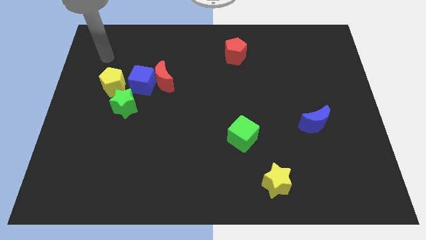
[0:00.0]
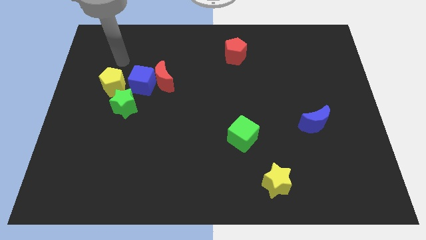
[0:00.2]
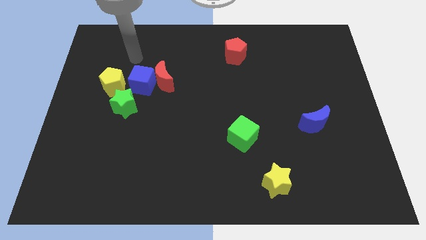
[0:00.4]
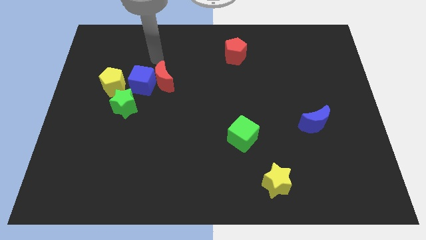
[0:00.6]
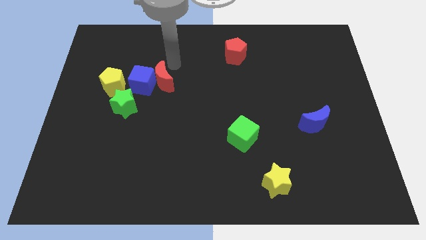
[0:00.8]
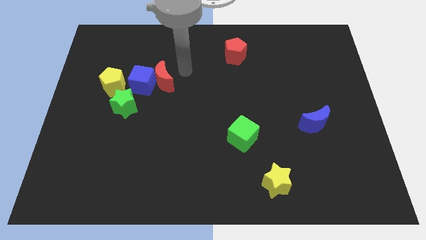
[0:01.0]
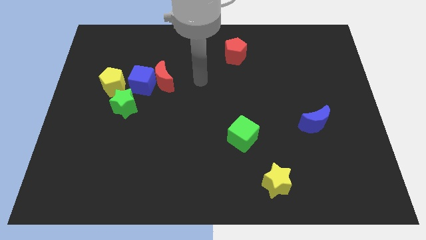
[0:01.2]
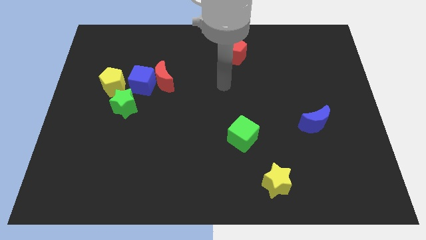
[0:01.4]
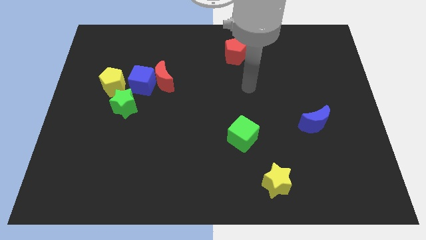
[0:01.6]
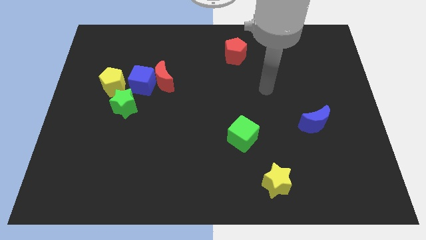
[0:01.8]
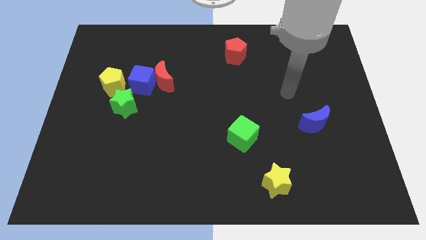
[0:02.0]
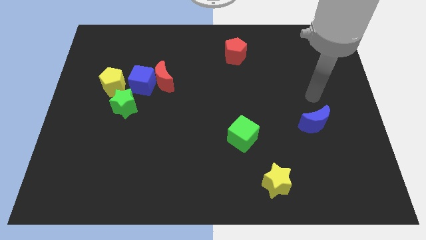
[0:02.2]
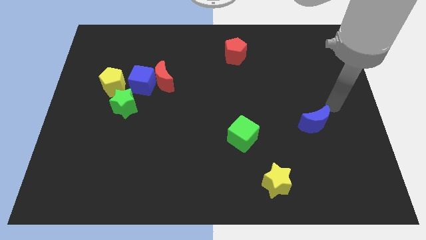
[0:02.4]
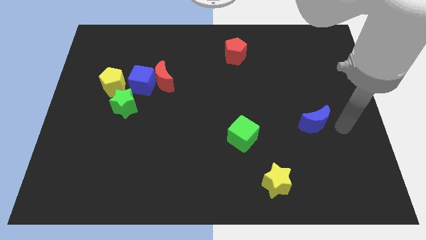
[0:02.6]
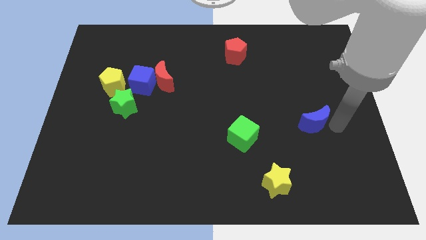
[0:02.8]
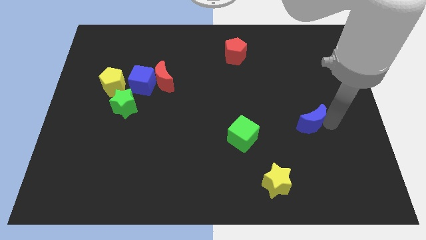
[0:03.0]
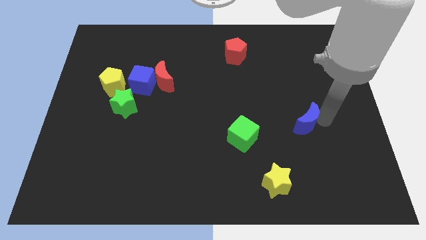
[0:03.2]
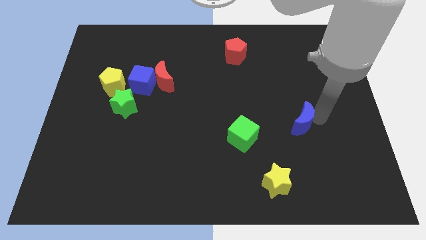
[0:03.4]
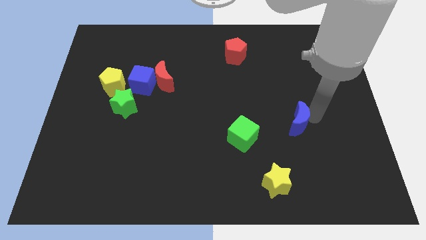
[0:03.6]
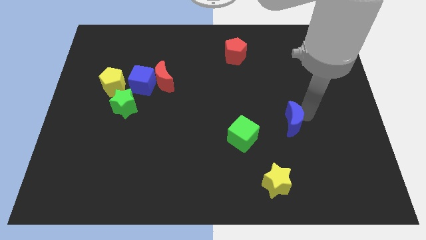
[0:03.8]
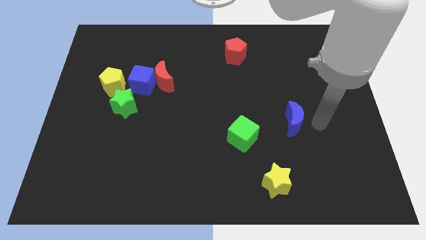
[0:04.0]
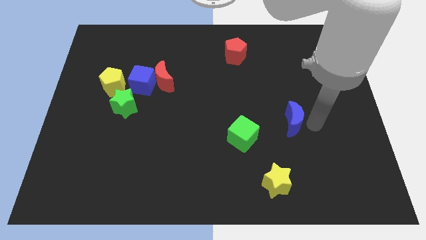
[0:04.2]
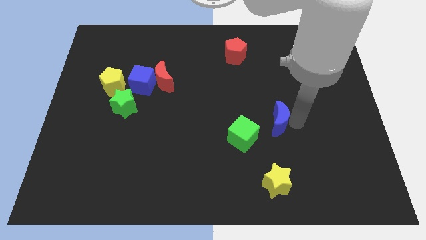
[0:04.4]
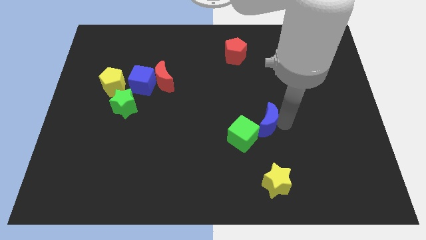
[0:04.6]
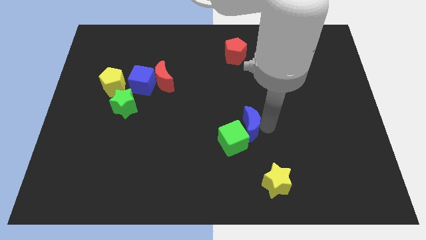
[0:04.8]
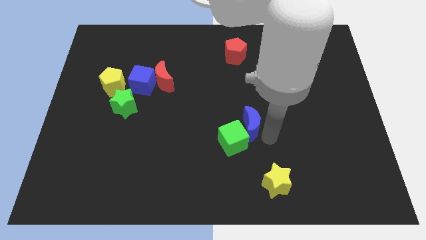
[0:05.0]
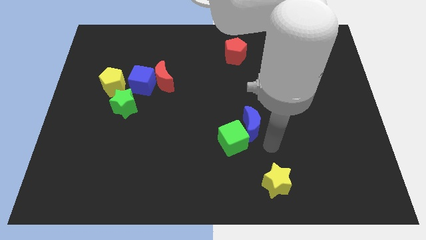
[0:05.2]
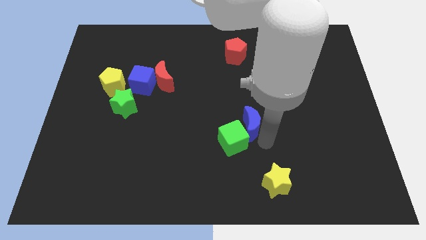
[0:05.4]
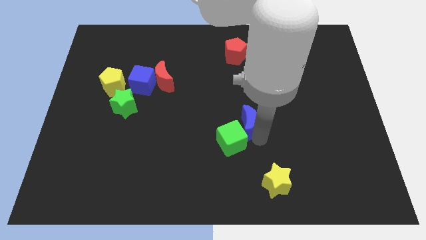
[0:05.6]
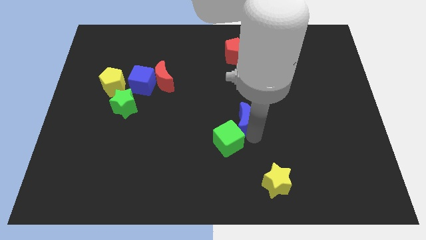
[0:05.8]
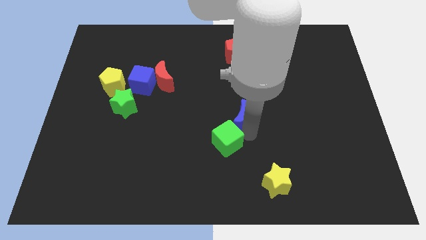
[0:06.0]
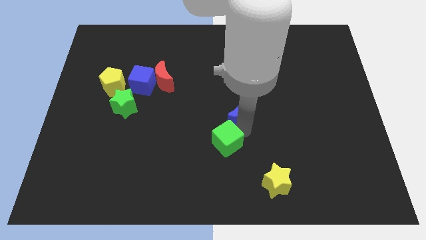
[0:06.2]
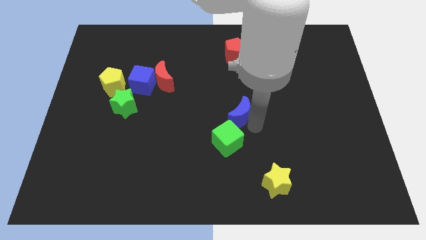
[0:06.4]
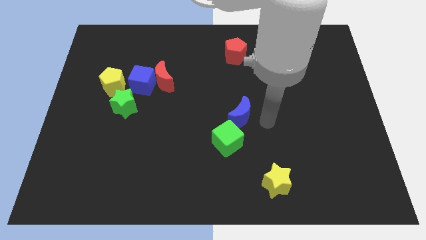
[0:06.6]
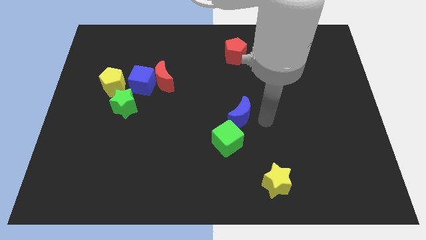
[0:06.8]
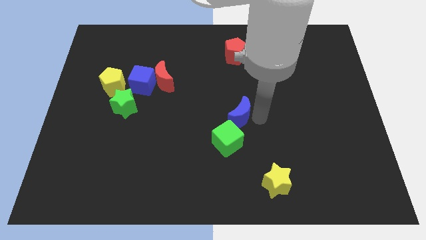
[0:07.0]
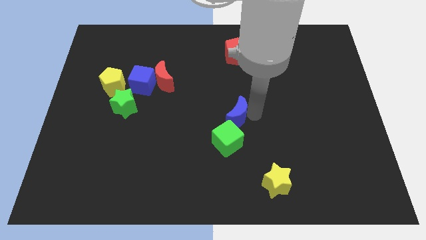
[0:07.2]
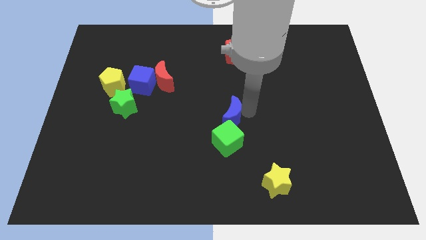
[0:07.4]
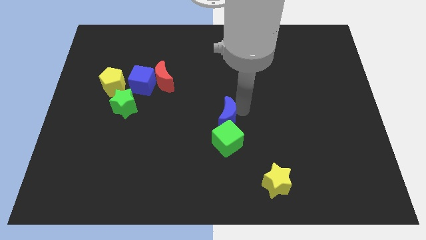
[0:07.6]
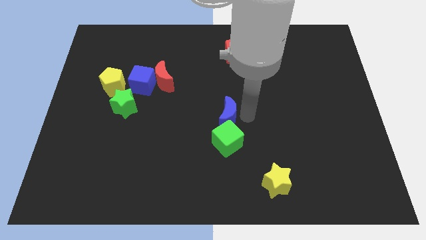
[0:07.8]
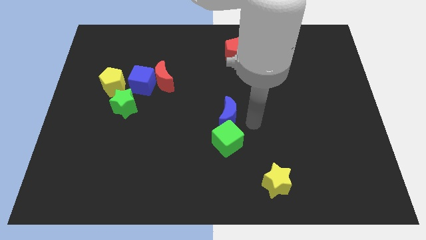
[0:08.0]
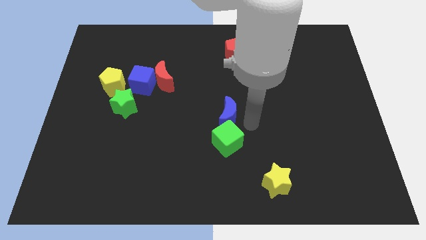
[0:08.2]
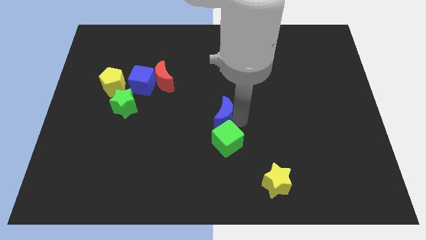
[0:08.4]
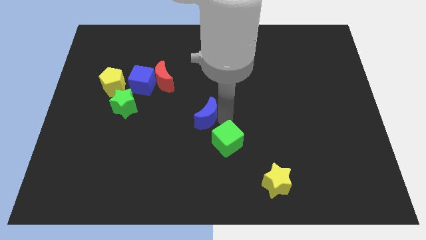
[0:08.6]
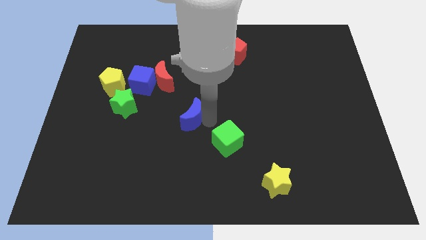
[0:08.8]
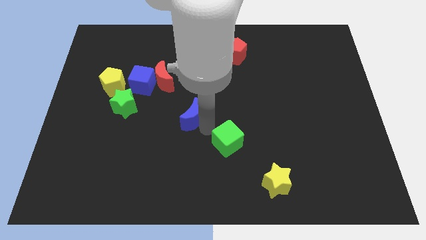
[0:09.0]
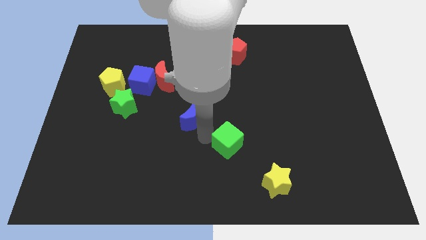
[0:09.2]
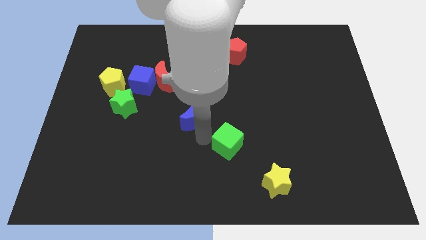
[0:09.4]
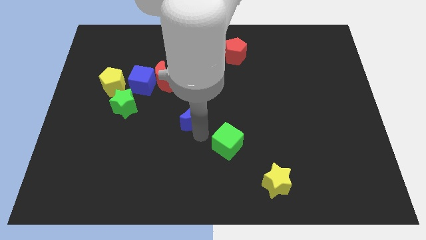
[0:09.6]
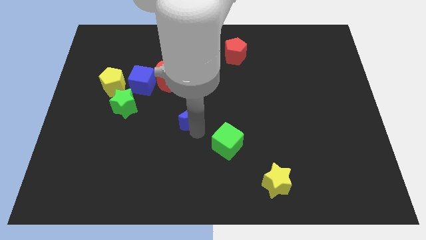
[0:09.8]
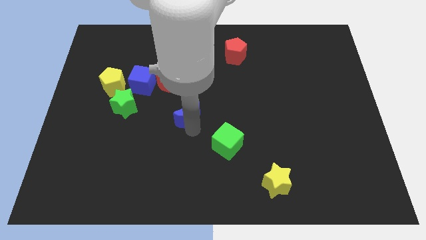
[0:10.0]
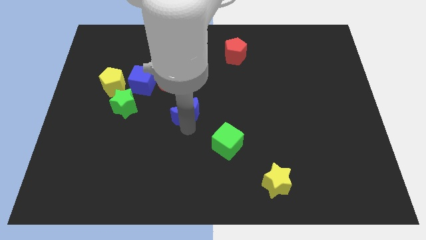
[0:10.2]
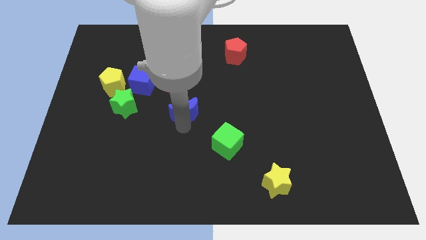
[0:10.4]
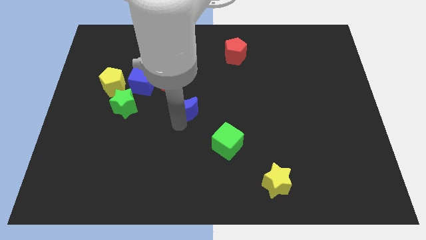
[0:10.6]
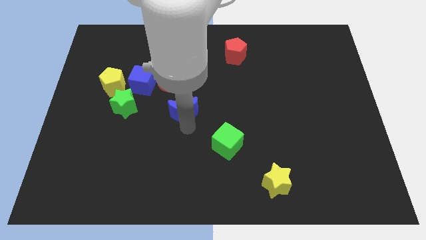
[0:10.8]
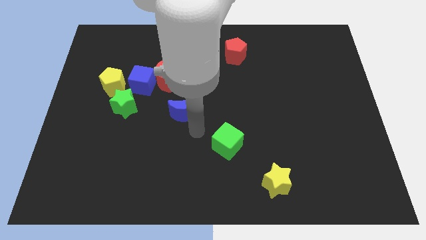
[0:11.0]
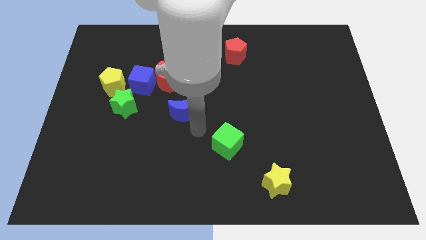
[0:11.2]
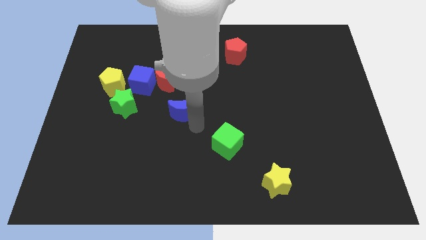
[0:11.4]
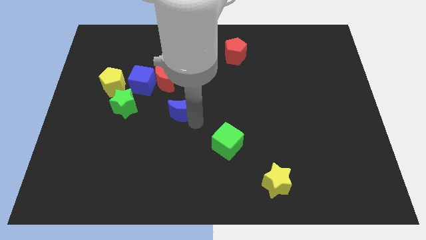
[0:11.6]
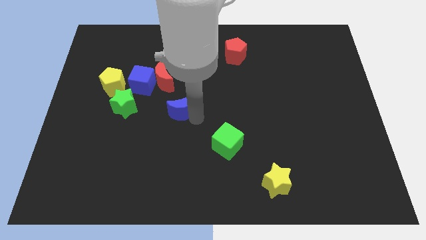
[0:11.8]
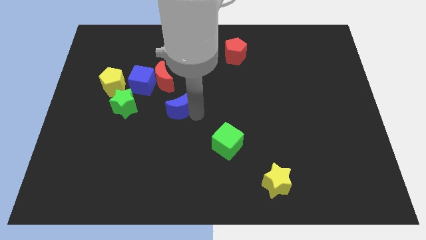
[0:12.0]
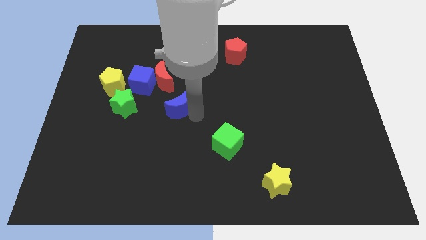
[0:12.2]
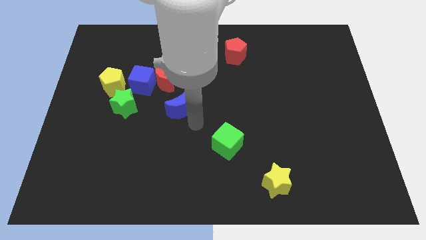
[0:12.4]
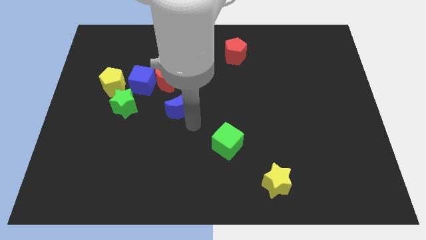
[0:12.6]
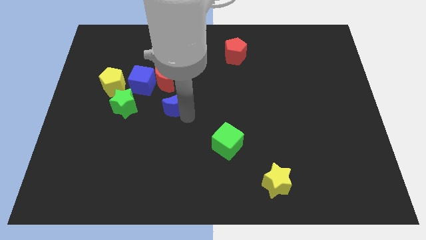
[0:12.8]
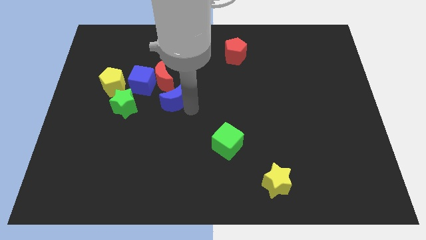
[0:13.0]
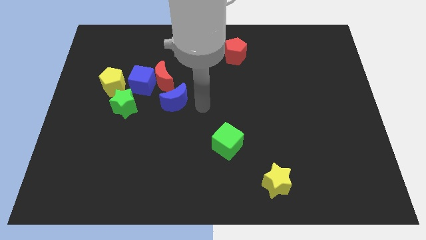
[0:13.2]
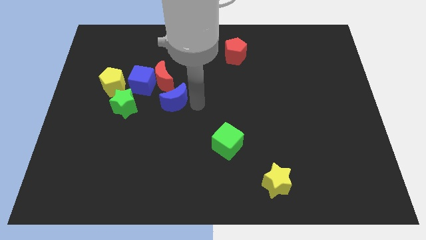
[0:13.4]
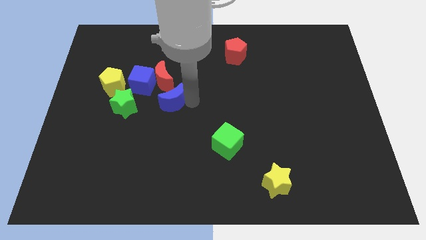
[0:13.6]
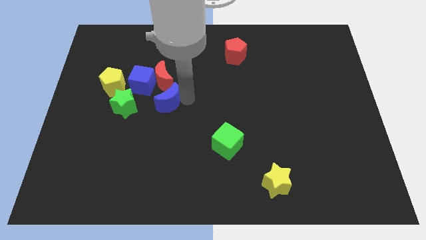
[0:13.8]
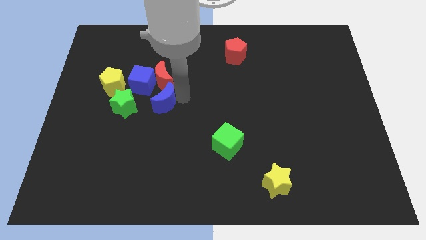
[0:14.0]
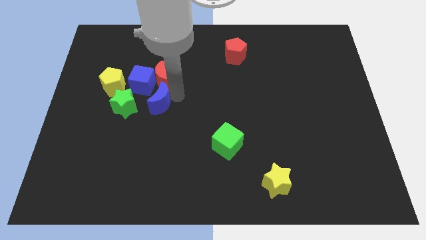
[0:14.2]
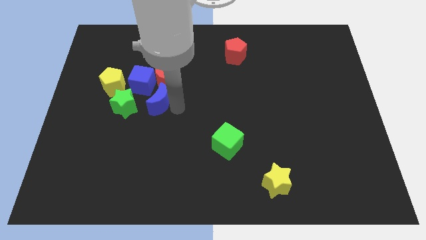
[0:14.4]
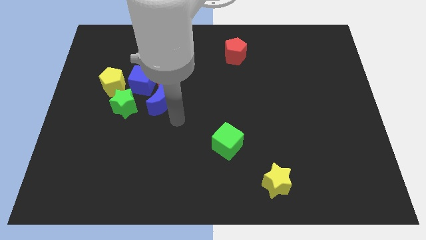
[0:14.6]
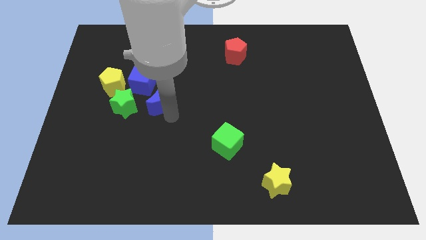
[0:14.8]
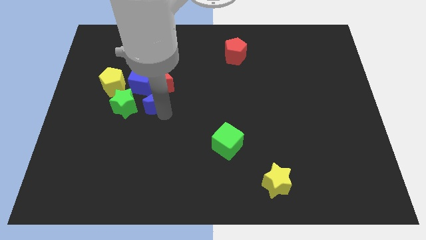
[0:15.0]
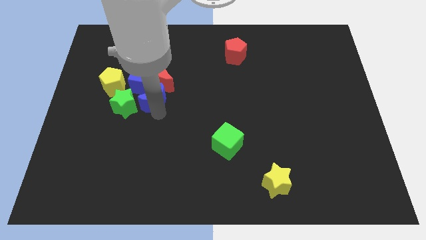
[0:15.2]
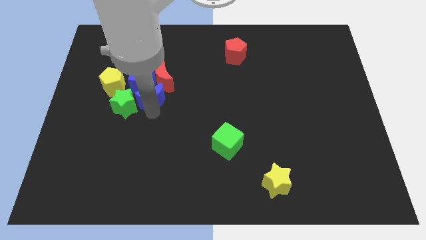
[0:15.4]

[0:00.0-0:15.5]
push the blue moon to the blue cube
